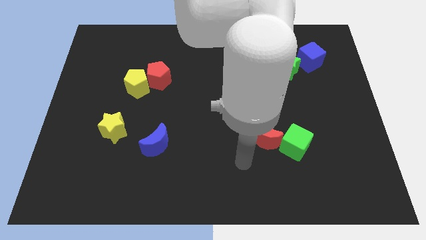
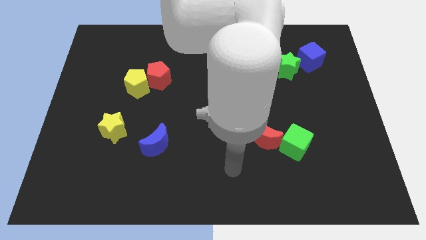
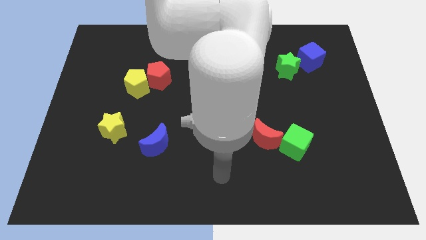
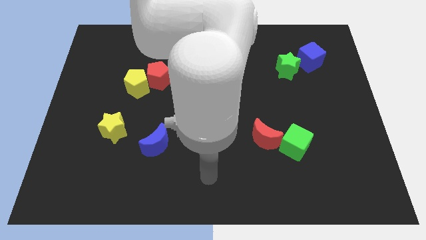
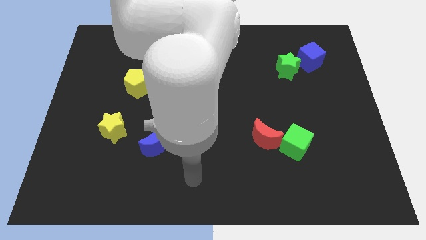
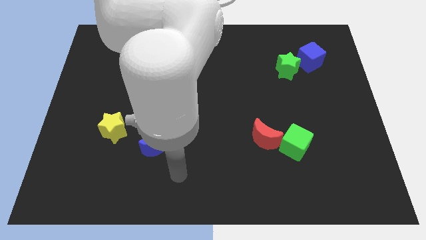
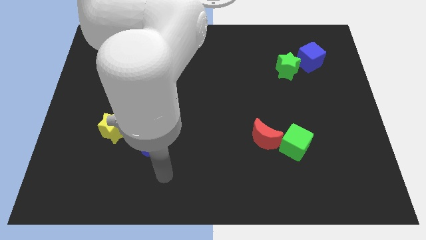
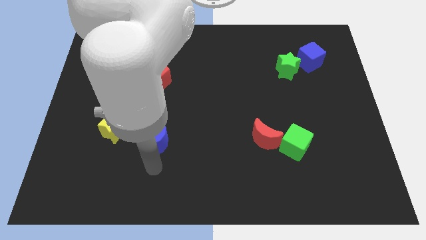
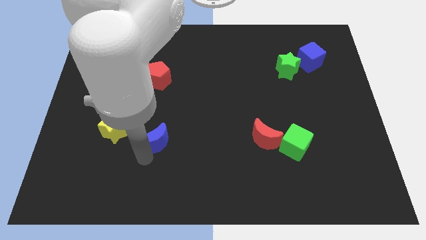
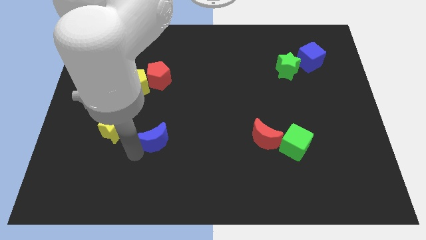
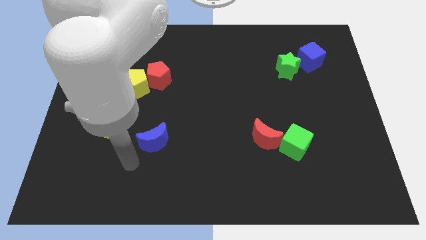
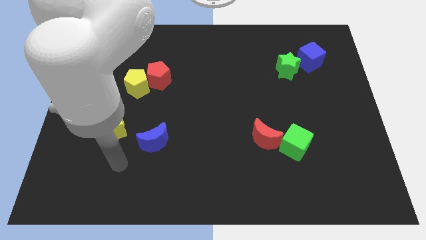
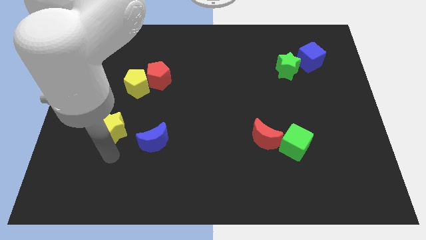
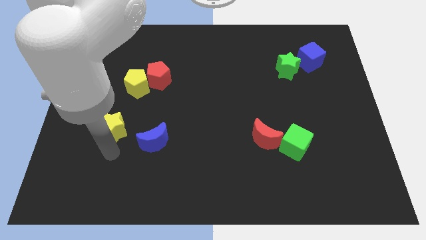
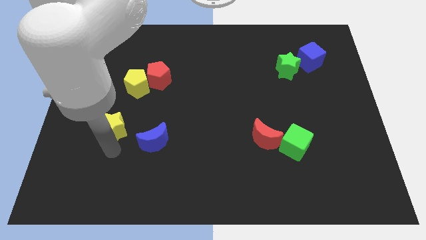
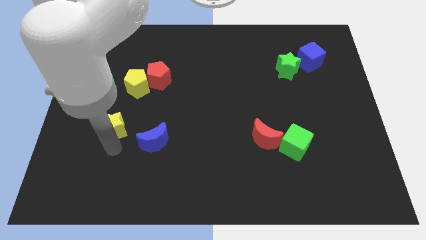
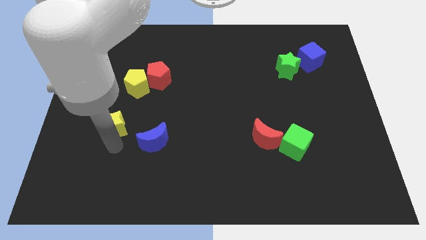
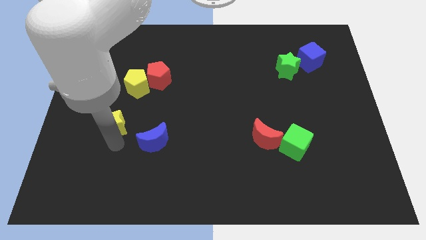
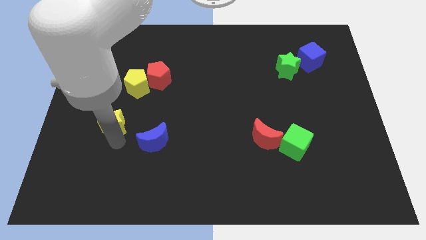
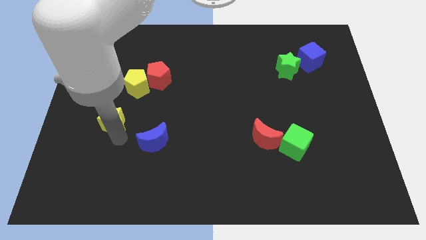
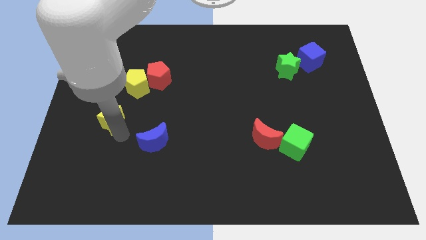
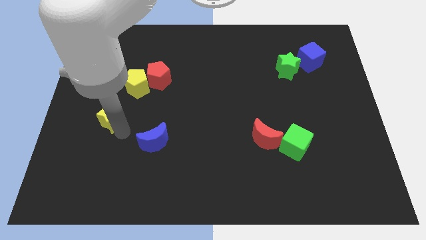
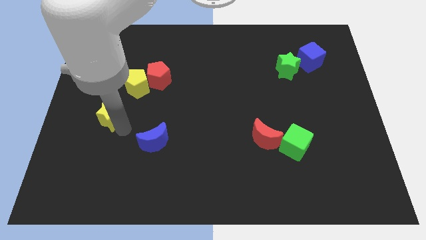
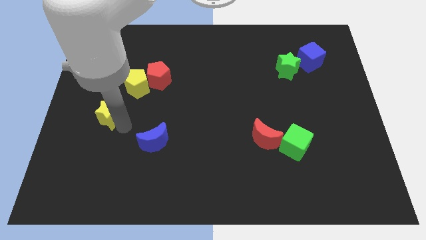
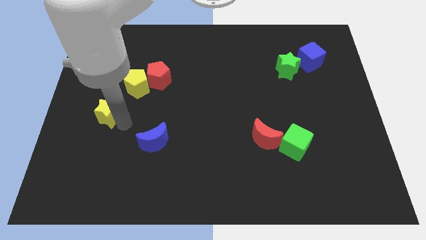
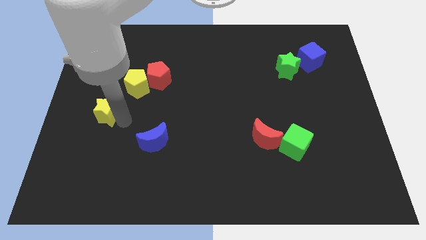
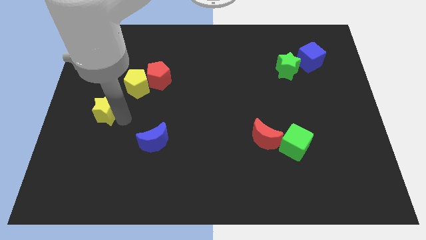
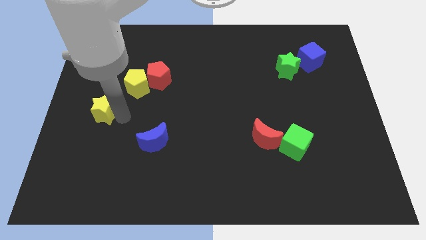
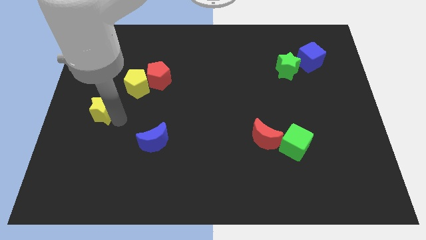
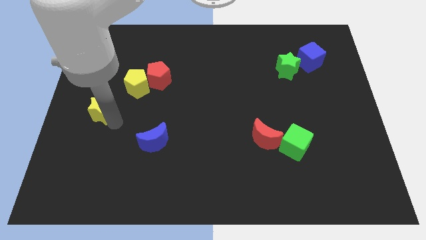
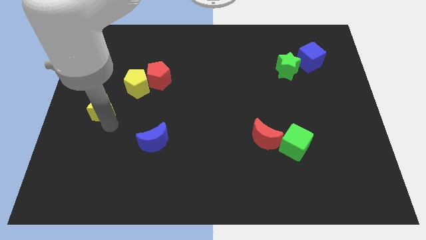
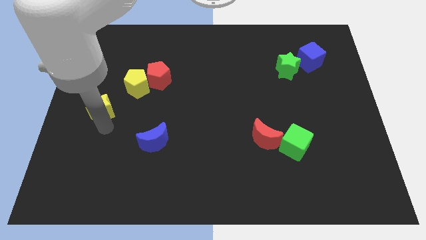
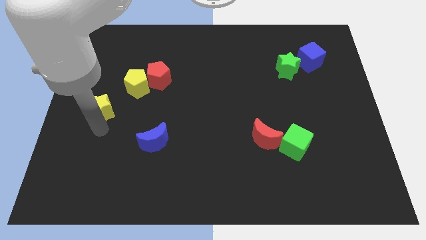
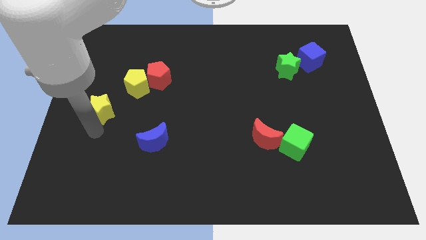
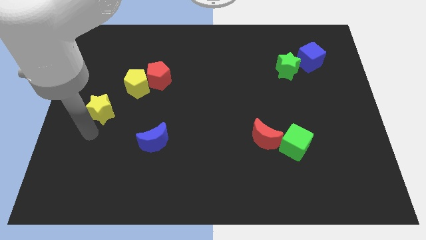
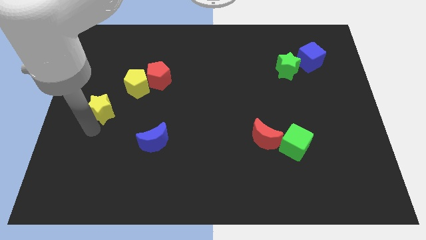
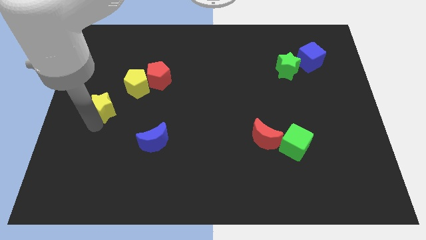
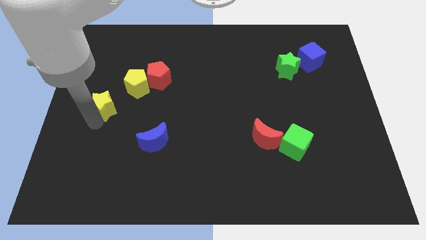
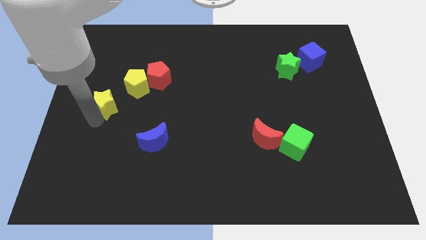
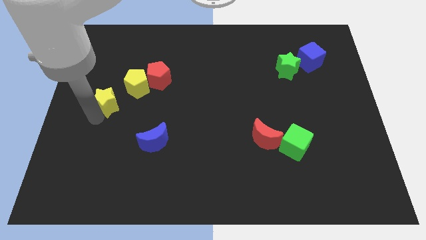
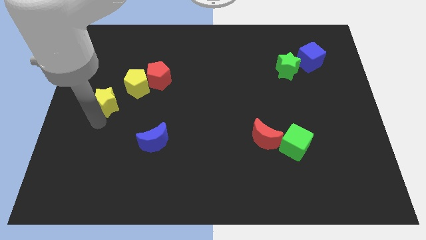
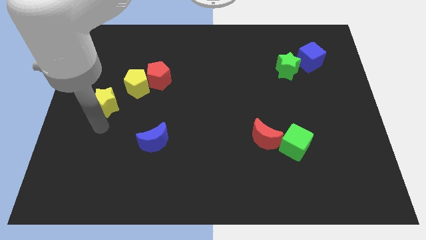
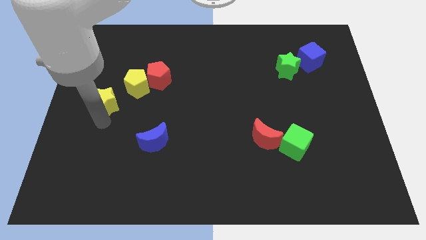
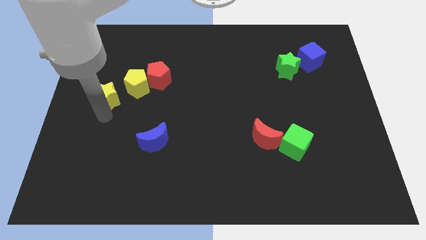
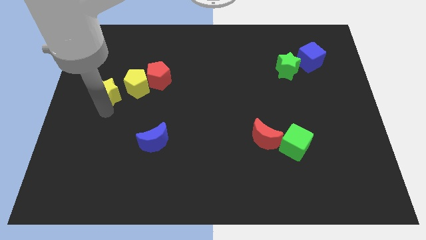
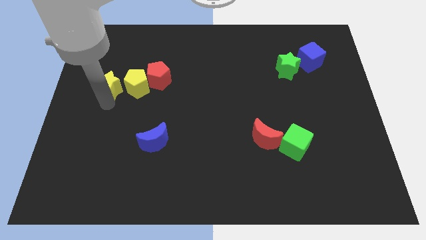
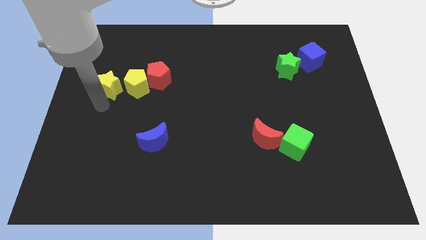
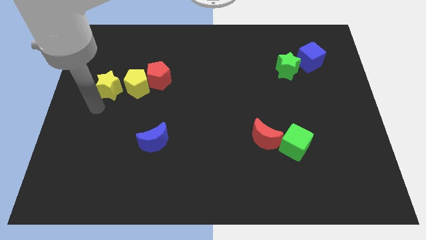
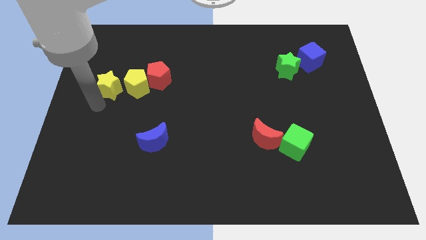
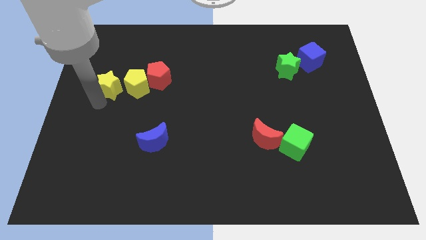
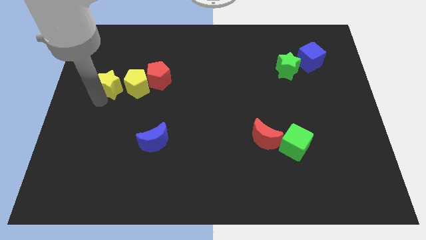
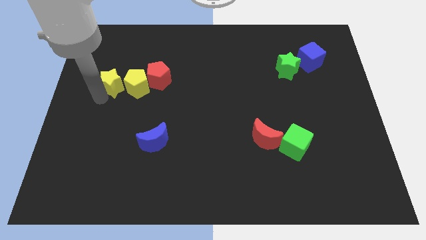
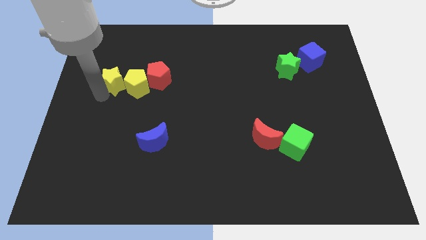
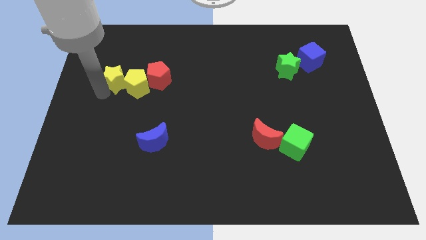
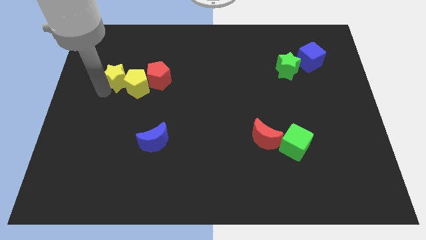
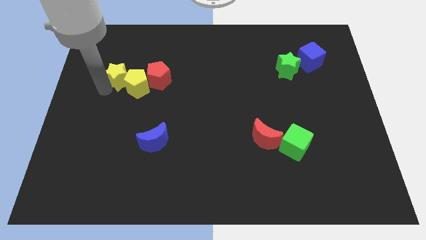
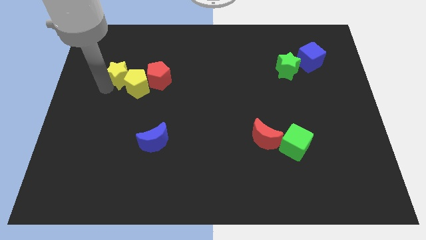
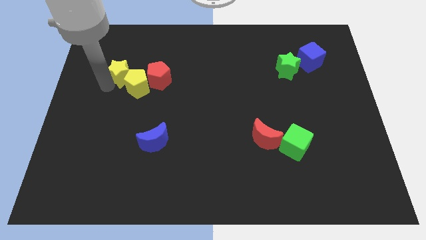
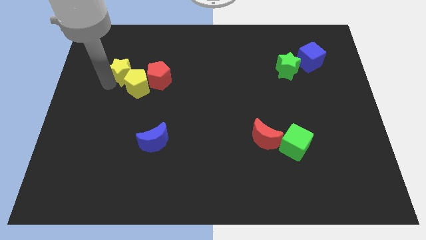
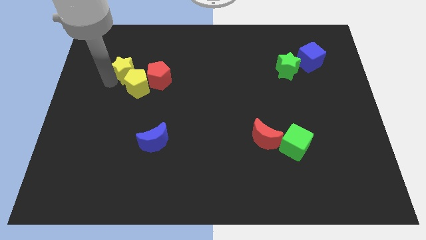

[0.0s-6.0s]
push the yellow star to the top left of the red pentagon
